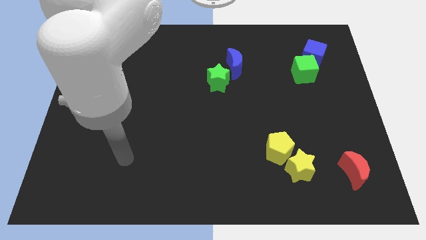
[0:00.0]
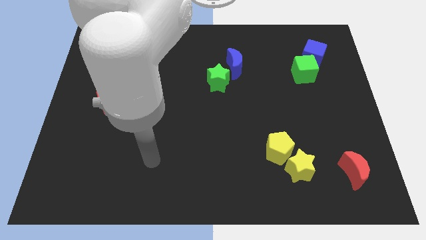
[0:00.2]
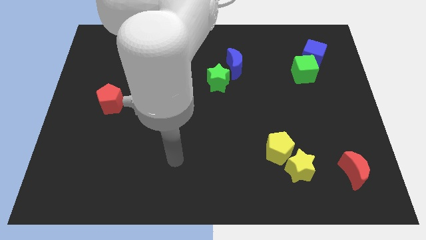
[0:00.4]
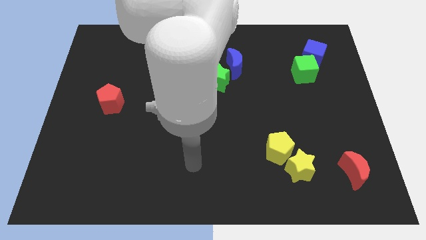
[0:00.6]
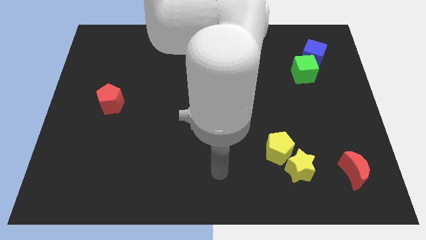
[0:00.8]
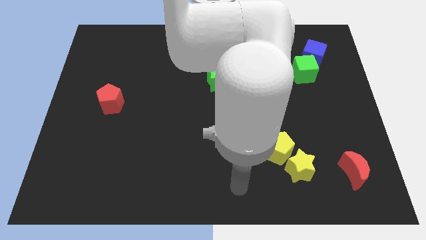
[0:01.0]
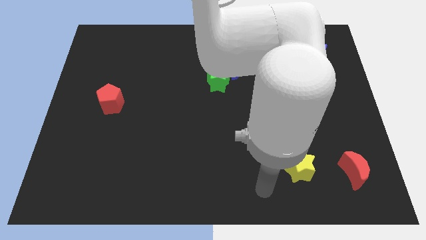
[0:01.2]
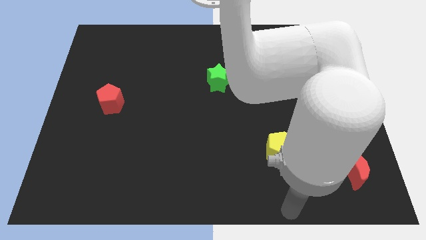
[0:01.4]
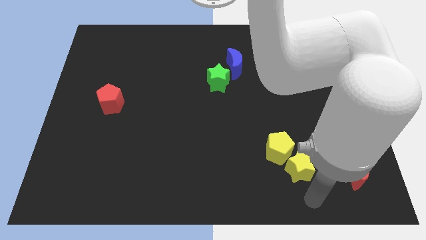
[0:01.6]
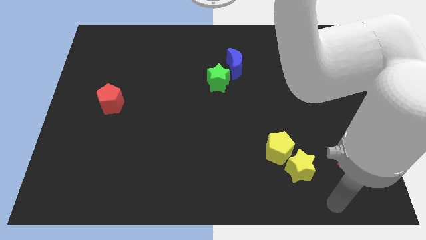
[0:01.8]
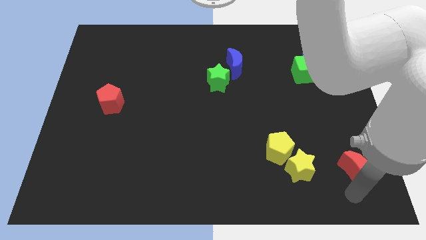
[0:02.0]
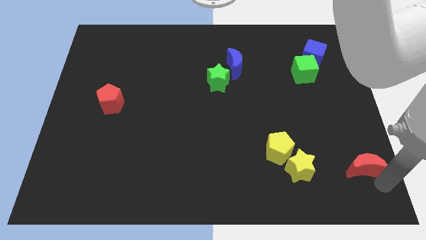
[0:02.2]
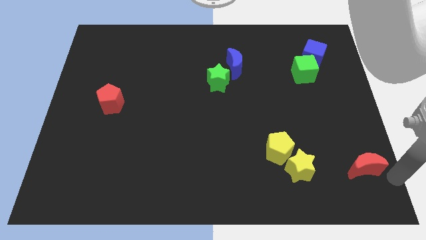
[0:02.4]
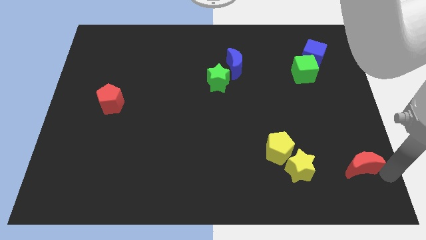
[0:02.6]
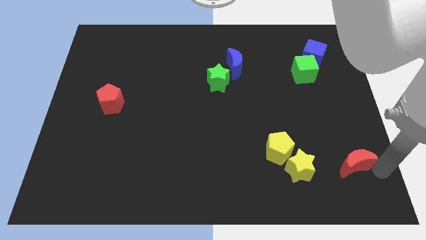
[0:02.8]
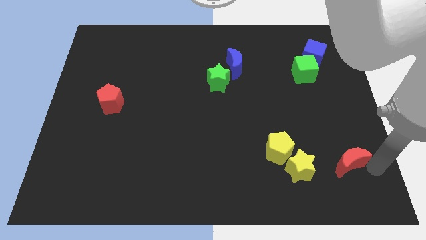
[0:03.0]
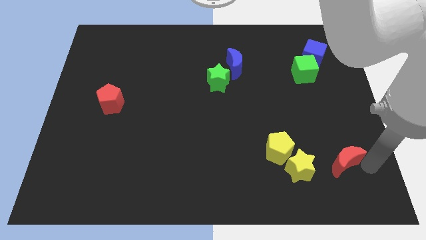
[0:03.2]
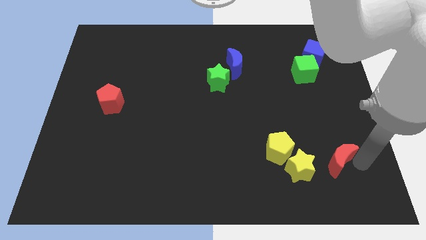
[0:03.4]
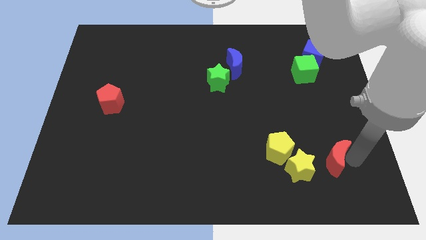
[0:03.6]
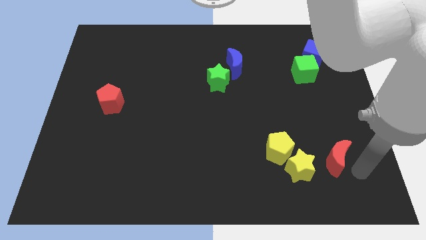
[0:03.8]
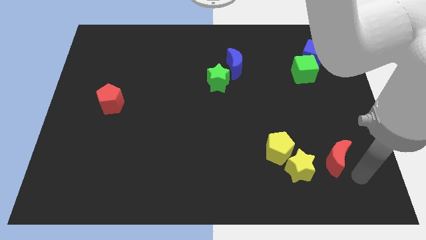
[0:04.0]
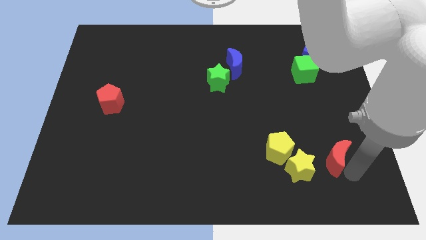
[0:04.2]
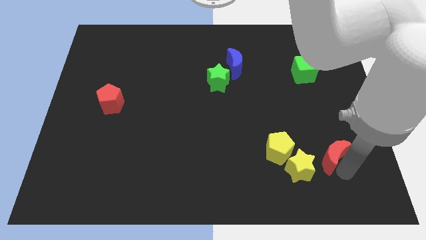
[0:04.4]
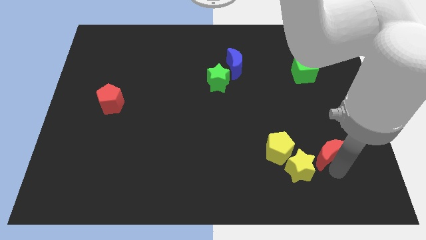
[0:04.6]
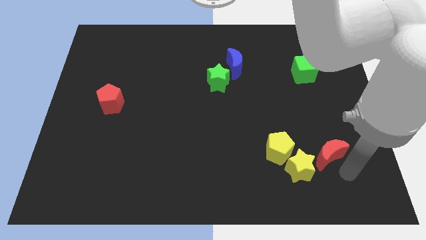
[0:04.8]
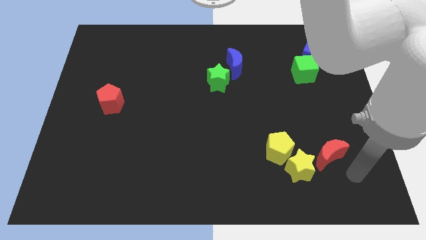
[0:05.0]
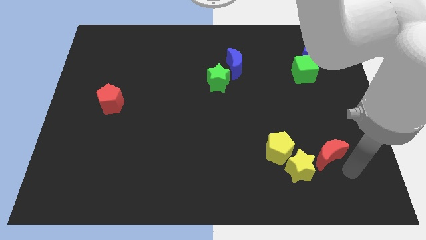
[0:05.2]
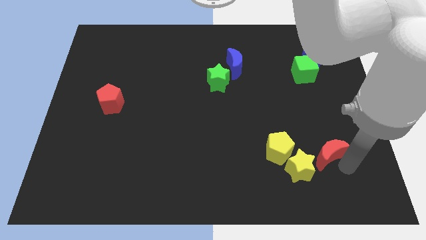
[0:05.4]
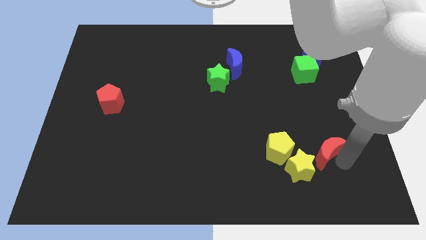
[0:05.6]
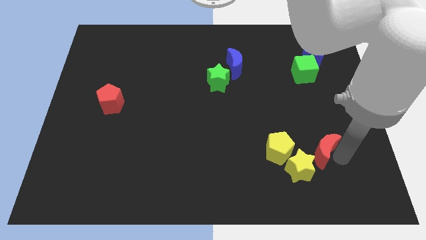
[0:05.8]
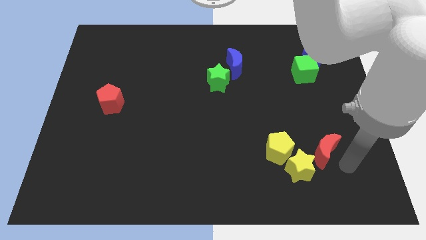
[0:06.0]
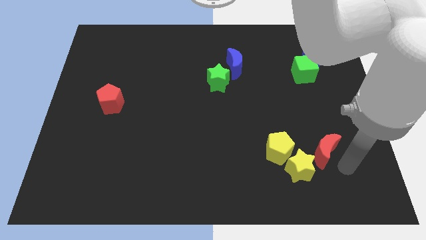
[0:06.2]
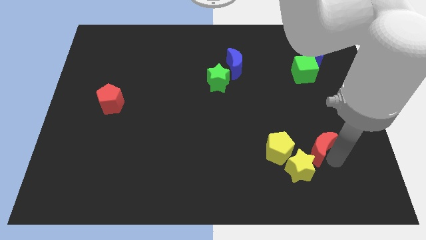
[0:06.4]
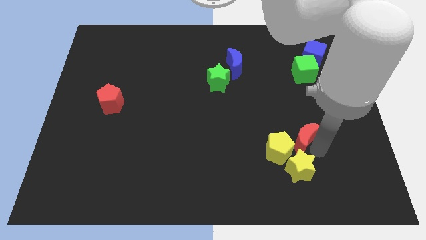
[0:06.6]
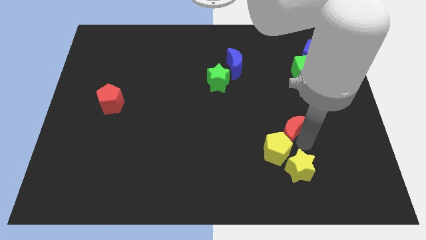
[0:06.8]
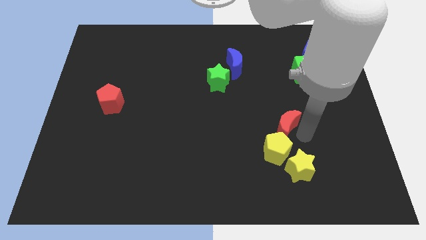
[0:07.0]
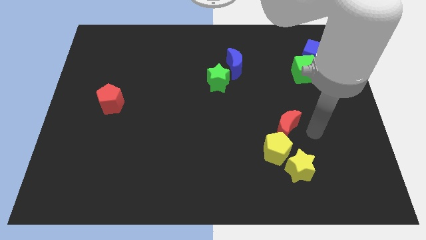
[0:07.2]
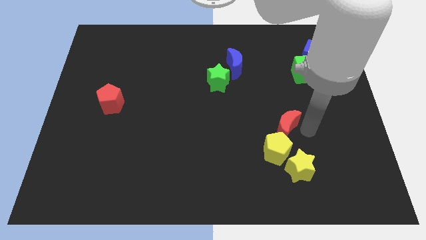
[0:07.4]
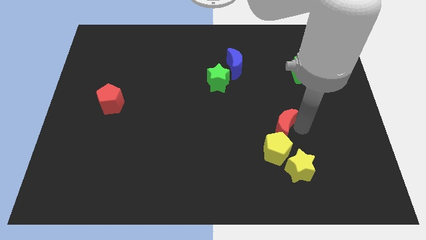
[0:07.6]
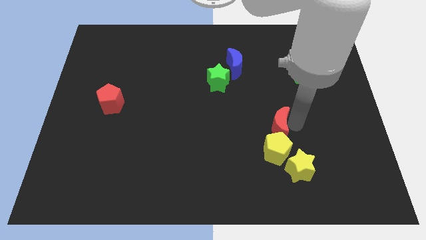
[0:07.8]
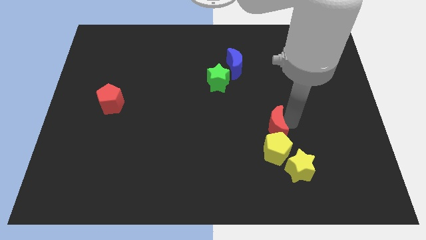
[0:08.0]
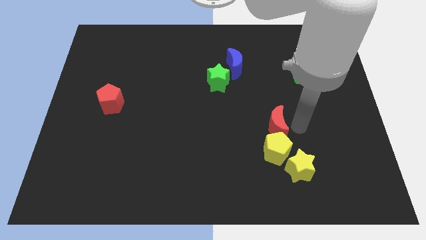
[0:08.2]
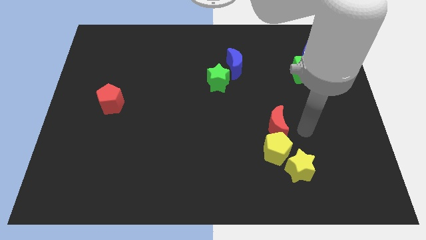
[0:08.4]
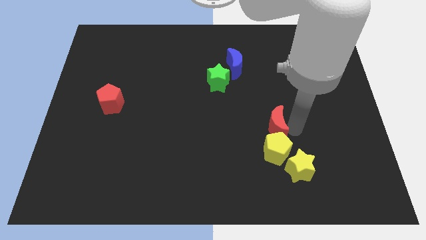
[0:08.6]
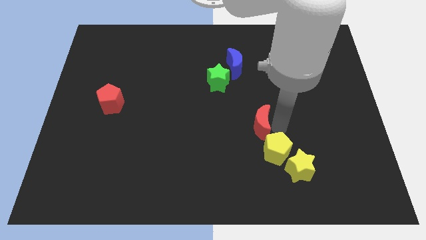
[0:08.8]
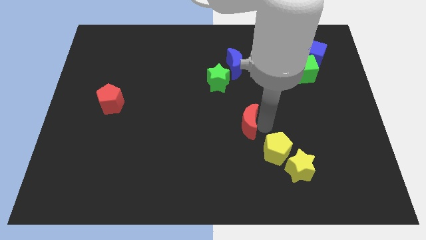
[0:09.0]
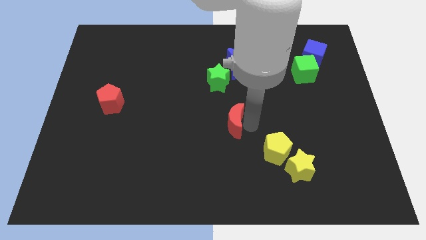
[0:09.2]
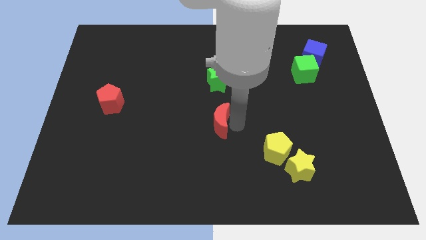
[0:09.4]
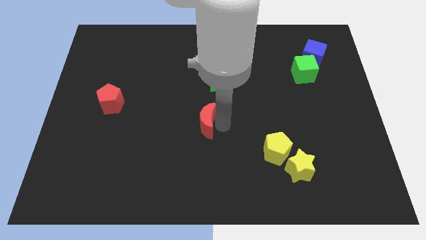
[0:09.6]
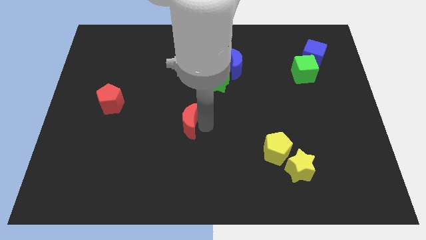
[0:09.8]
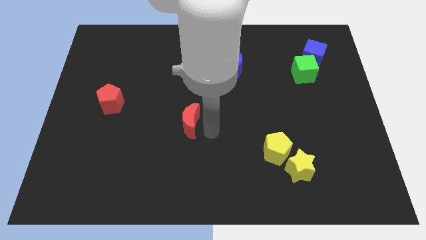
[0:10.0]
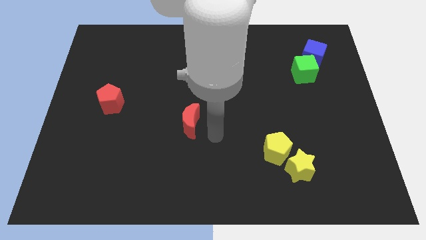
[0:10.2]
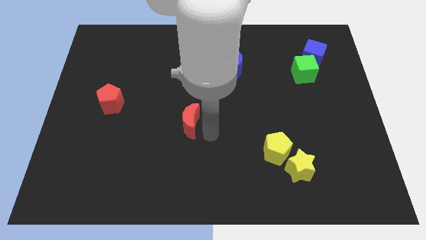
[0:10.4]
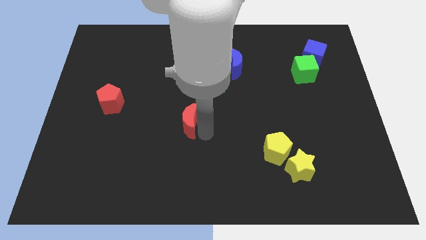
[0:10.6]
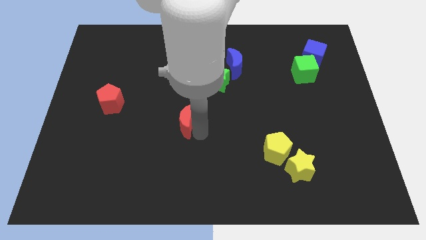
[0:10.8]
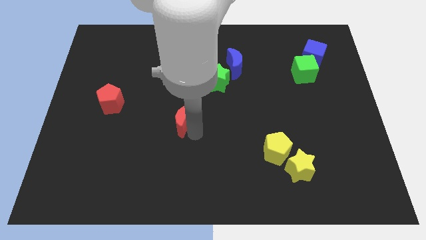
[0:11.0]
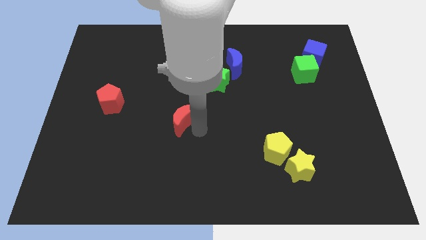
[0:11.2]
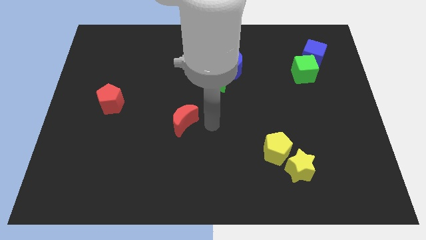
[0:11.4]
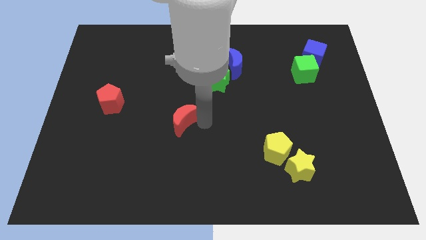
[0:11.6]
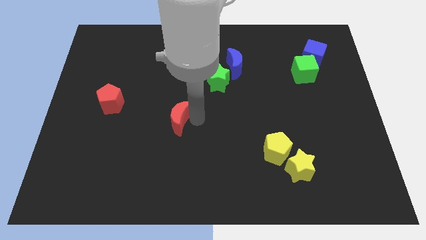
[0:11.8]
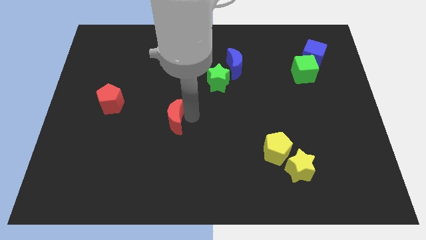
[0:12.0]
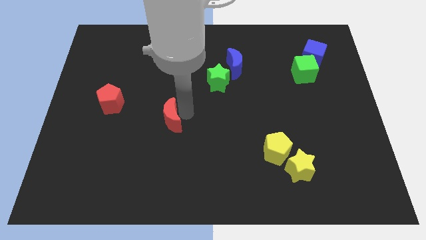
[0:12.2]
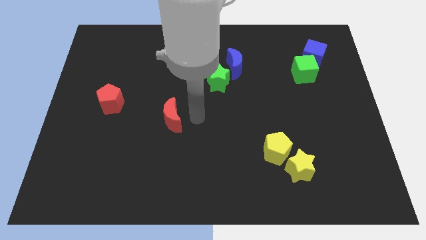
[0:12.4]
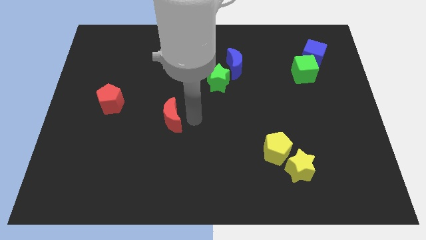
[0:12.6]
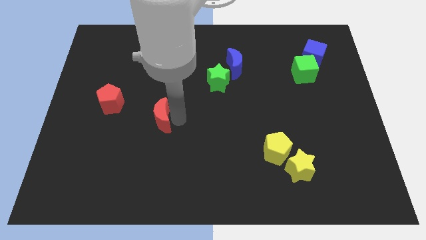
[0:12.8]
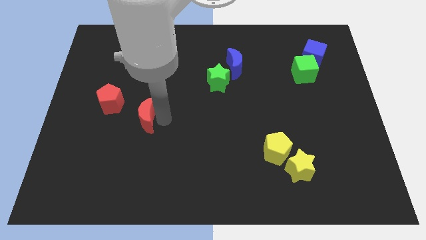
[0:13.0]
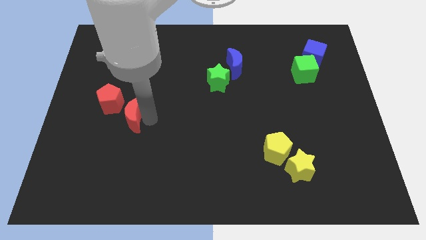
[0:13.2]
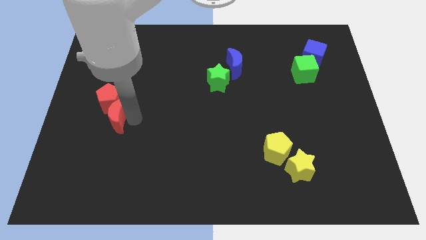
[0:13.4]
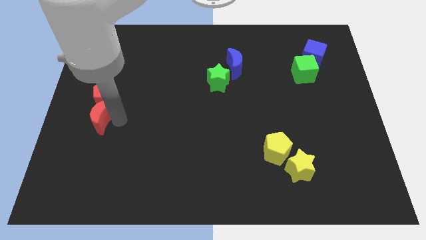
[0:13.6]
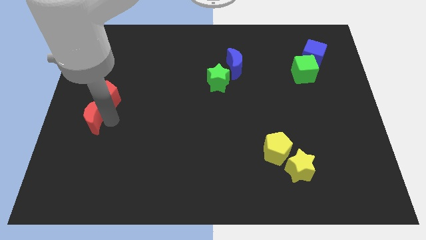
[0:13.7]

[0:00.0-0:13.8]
move the red moon to the left side of the board
